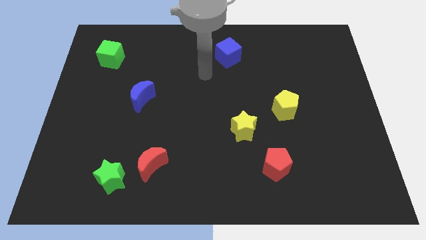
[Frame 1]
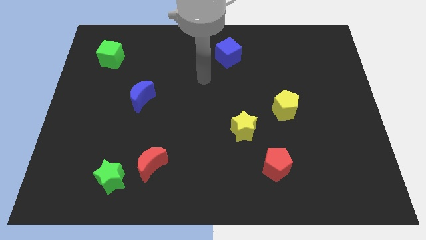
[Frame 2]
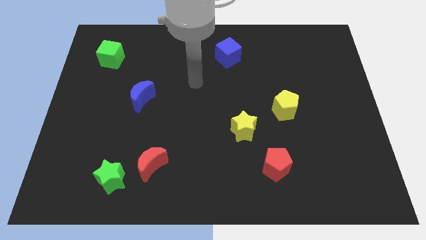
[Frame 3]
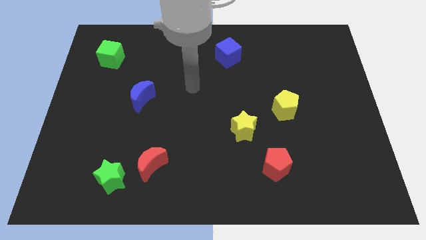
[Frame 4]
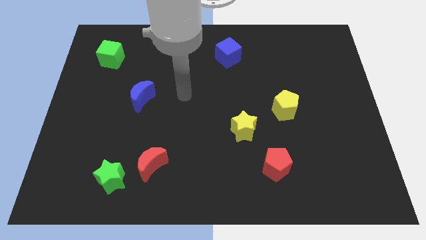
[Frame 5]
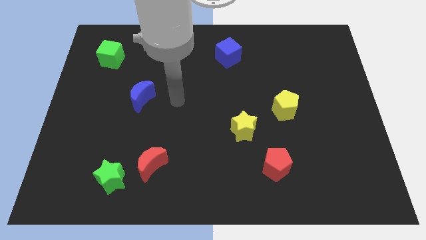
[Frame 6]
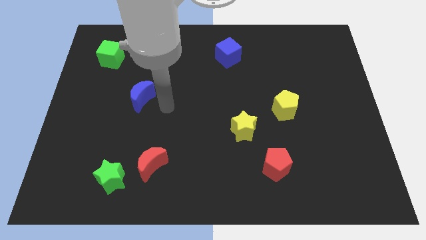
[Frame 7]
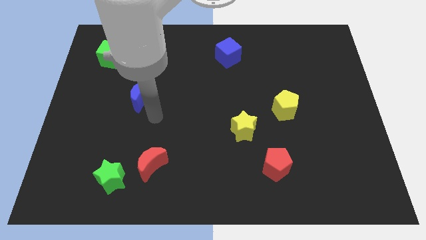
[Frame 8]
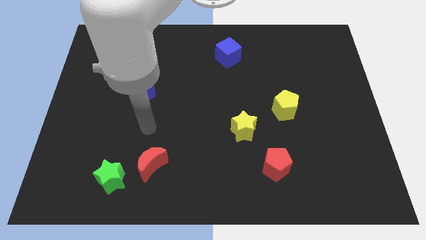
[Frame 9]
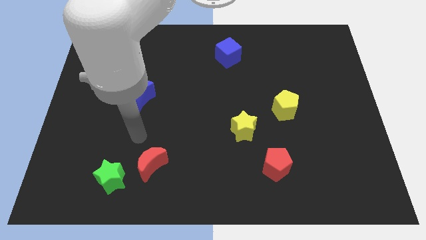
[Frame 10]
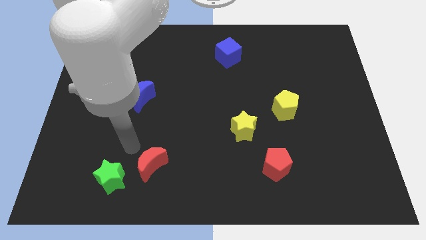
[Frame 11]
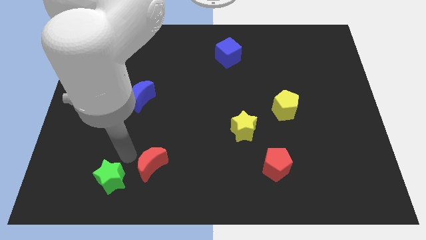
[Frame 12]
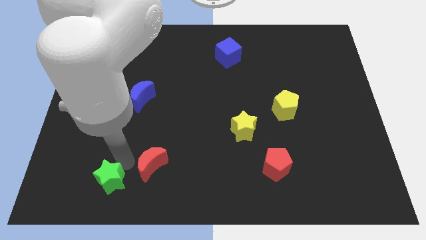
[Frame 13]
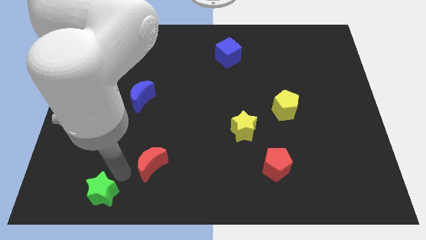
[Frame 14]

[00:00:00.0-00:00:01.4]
pull the red moon apart from the green star

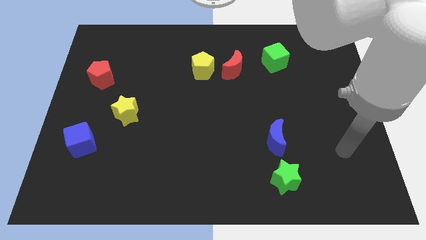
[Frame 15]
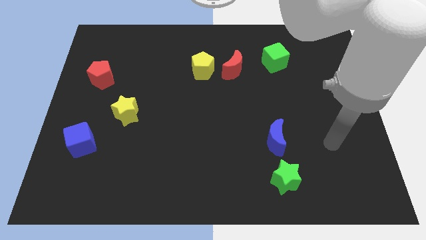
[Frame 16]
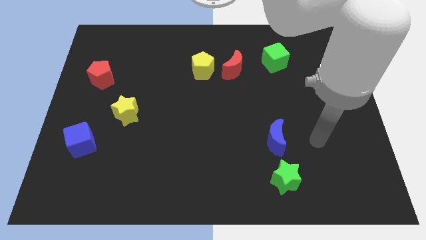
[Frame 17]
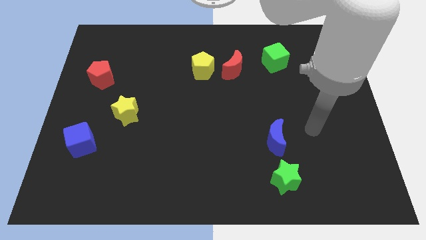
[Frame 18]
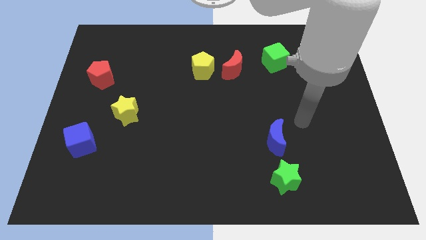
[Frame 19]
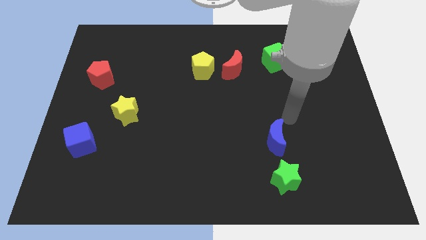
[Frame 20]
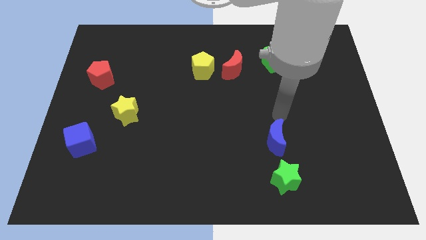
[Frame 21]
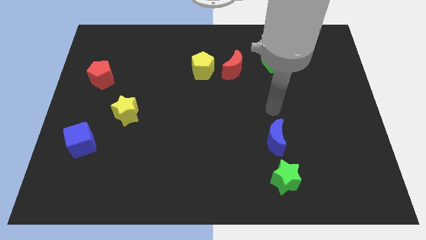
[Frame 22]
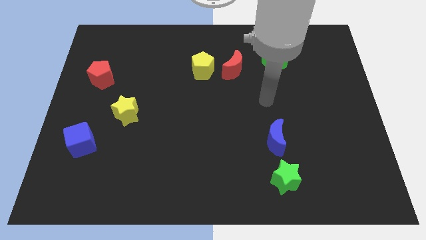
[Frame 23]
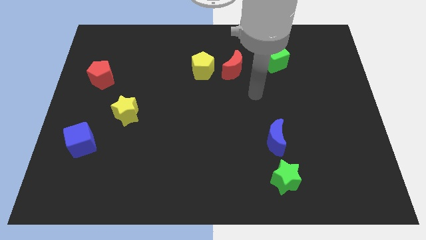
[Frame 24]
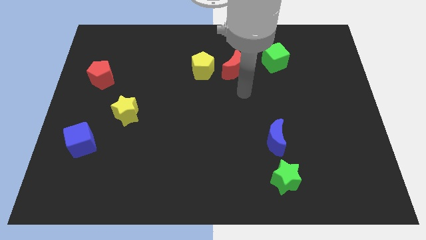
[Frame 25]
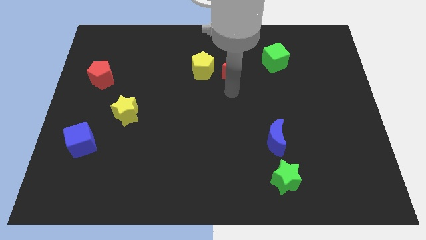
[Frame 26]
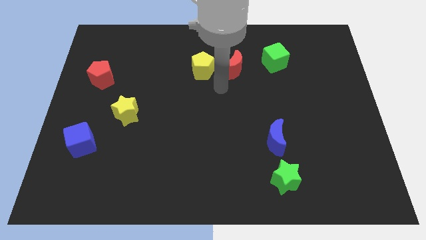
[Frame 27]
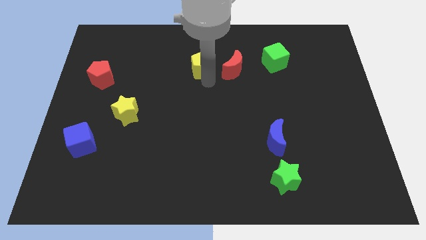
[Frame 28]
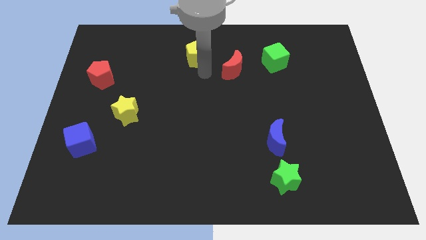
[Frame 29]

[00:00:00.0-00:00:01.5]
separate the red moon from the yellow pentagon

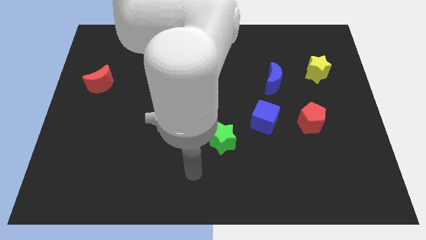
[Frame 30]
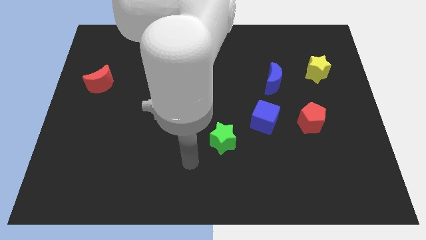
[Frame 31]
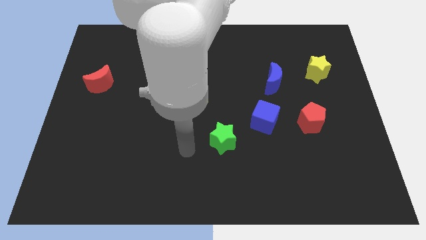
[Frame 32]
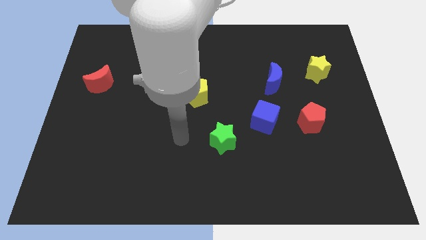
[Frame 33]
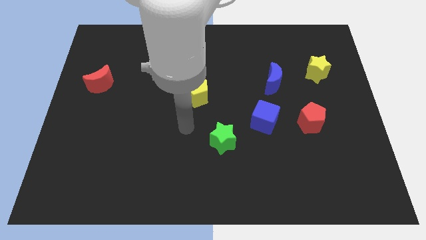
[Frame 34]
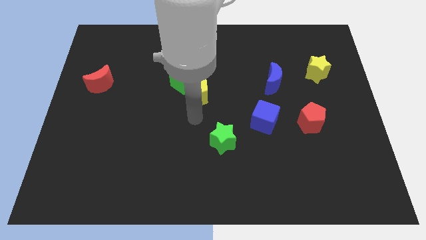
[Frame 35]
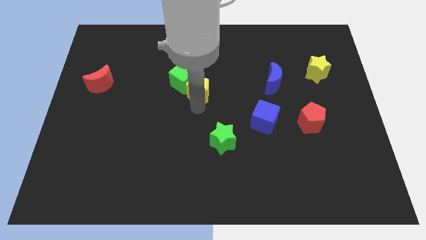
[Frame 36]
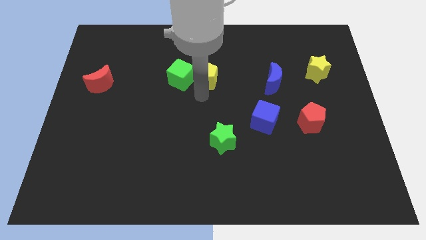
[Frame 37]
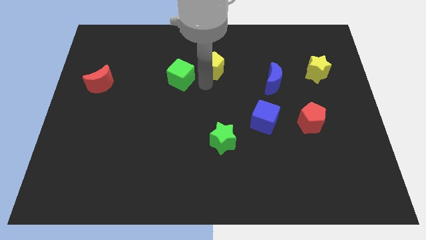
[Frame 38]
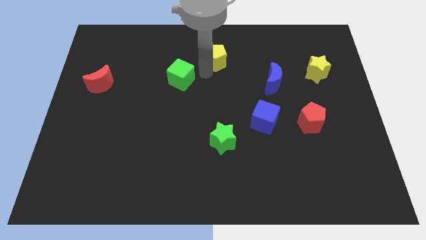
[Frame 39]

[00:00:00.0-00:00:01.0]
pull the green cube apart from the yellow pentagon

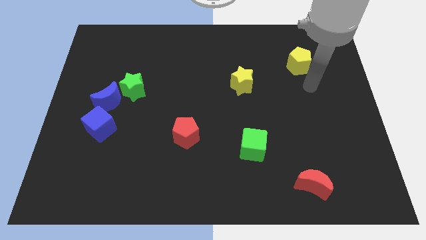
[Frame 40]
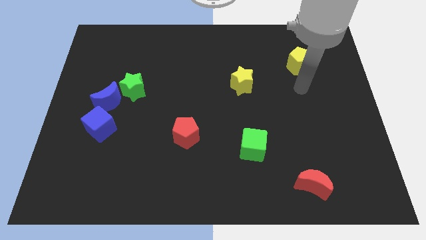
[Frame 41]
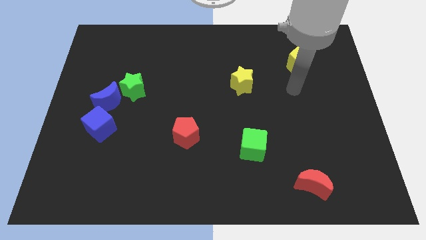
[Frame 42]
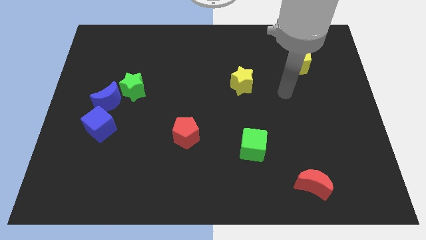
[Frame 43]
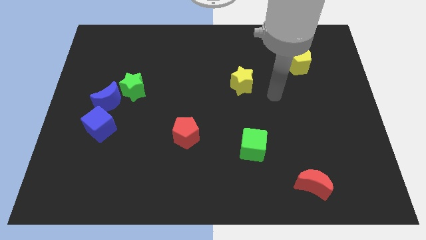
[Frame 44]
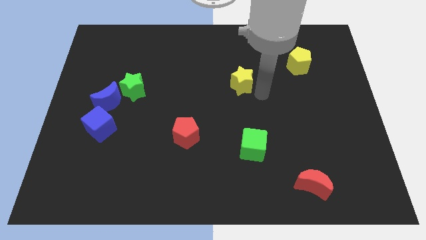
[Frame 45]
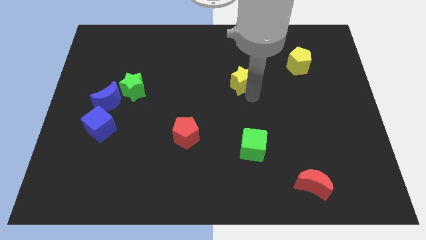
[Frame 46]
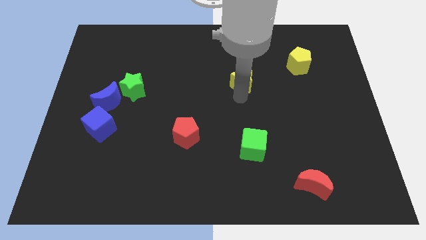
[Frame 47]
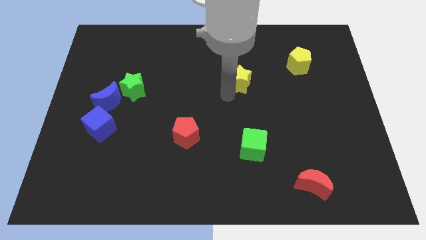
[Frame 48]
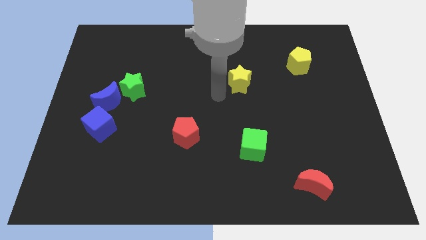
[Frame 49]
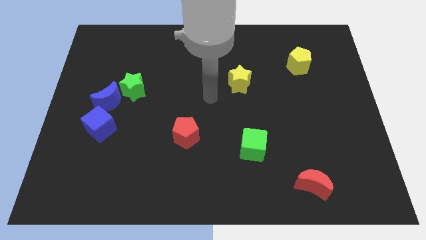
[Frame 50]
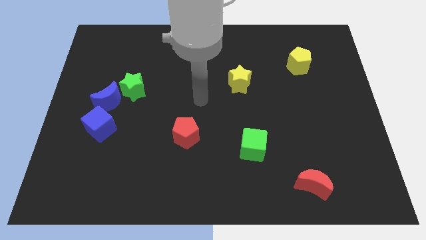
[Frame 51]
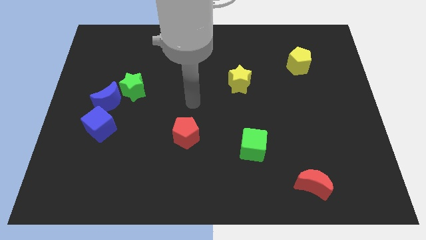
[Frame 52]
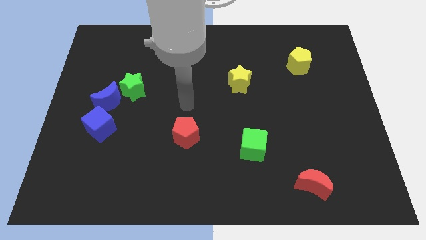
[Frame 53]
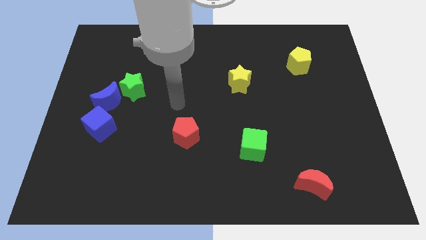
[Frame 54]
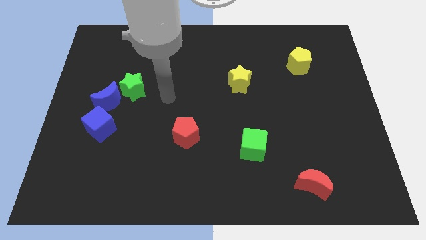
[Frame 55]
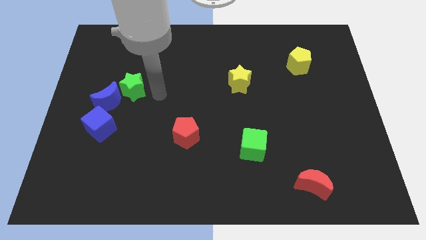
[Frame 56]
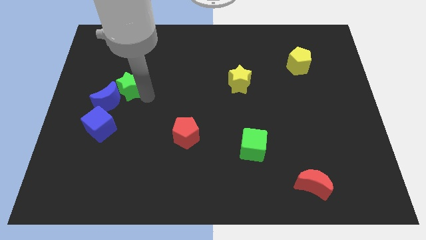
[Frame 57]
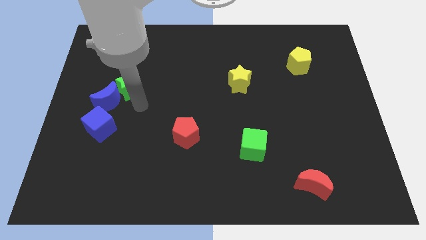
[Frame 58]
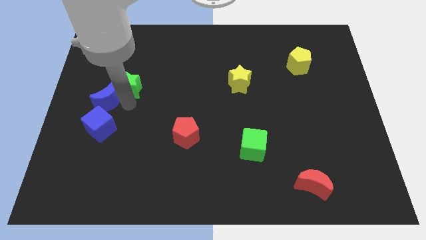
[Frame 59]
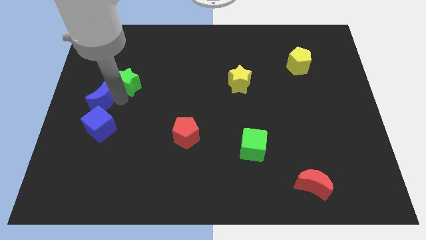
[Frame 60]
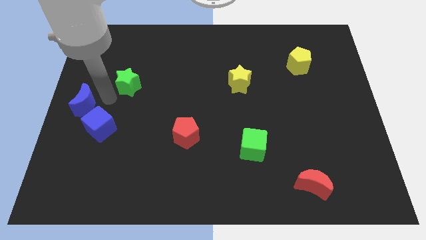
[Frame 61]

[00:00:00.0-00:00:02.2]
pull the green star apart from the blue moon

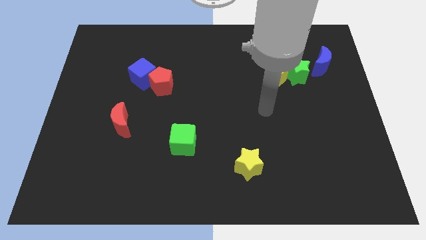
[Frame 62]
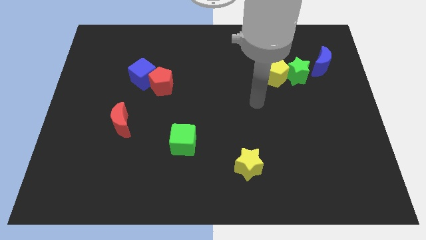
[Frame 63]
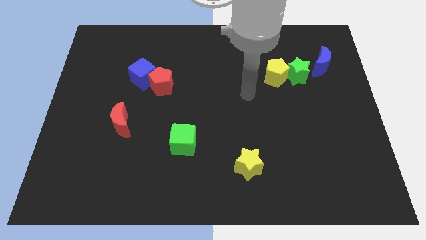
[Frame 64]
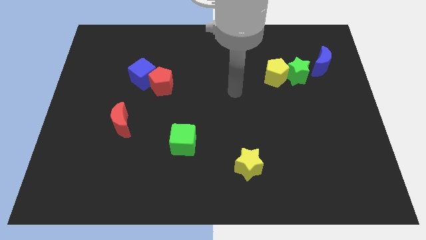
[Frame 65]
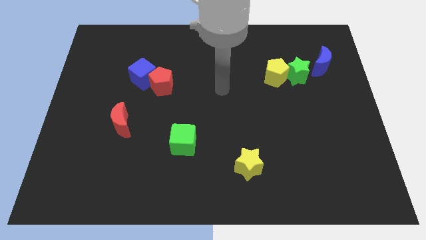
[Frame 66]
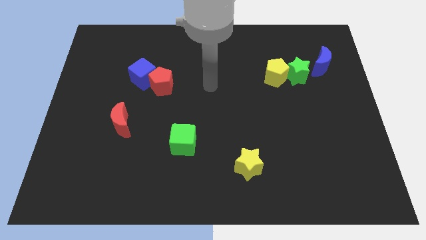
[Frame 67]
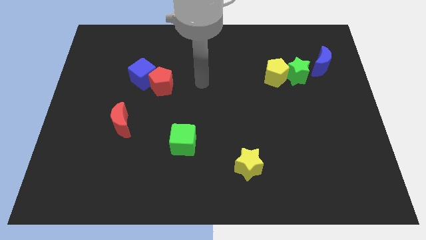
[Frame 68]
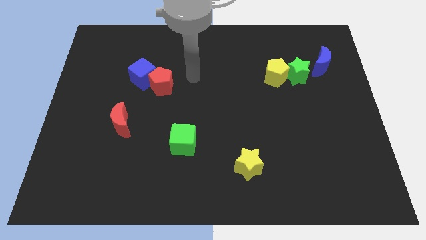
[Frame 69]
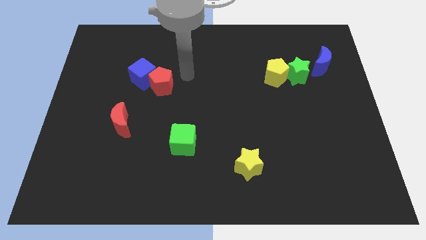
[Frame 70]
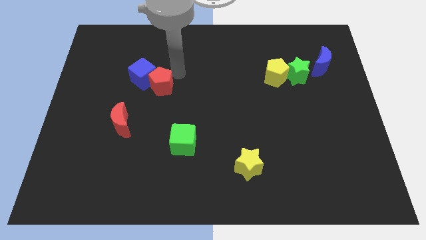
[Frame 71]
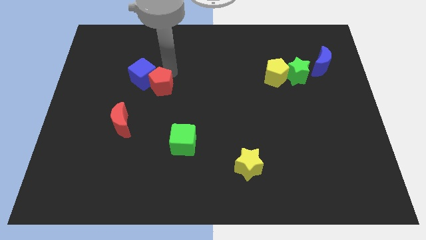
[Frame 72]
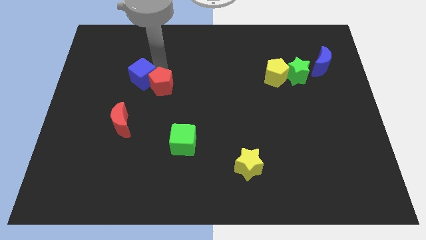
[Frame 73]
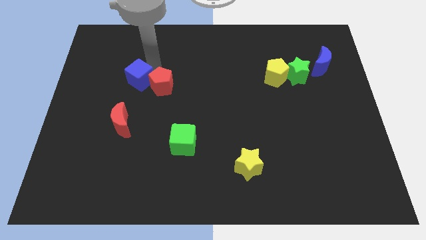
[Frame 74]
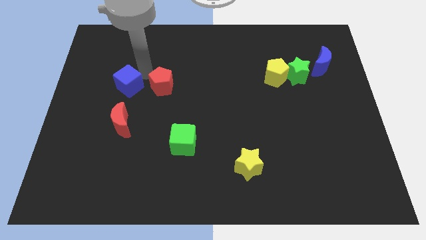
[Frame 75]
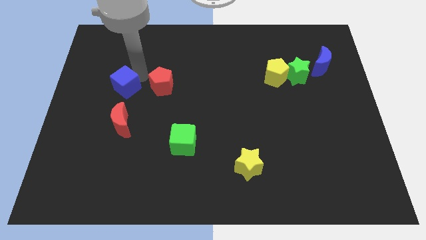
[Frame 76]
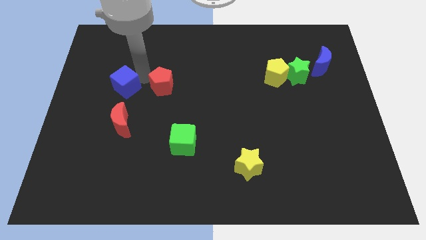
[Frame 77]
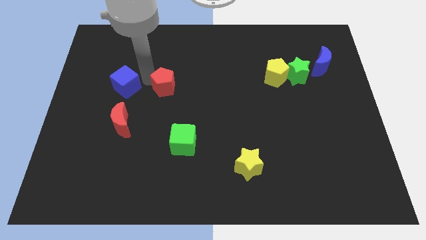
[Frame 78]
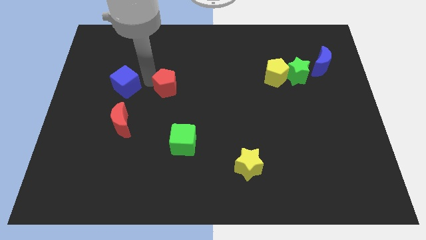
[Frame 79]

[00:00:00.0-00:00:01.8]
move the red pentagon away from the blue cube

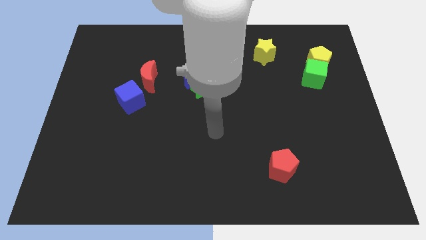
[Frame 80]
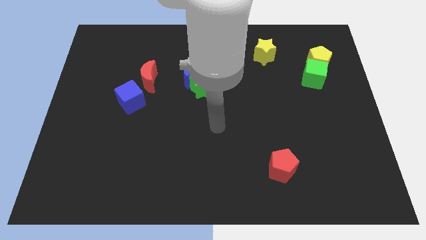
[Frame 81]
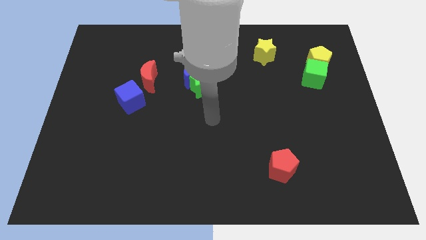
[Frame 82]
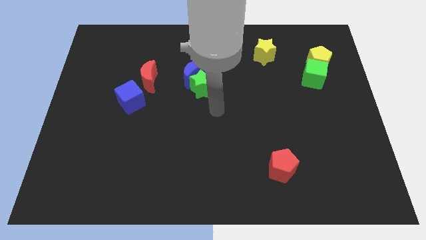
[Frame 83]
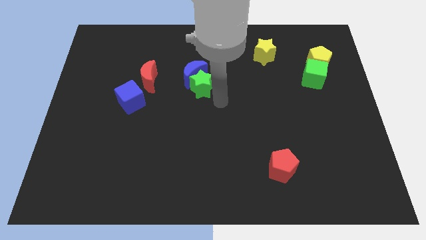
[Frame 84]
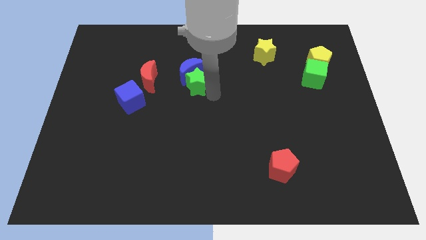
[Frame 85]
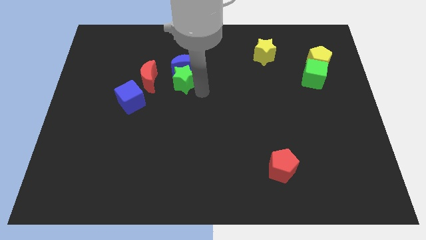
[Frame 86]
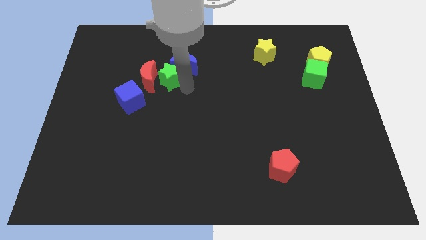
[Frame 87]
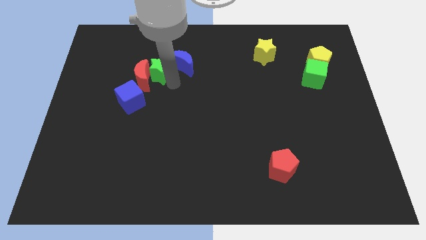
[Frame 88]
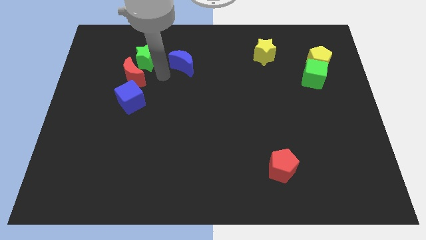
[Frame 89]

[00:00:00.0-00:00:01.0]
move the blue moon away from the green star

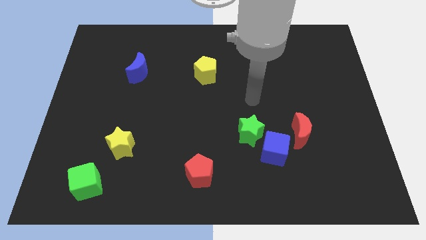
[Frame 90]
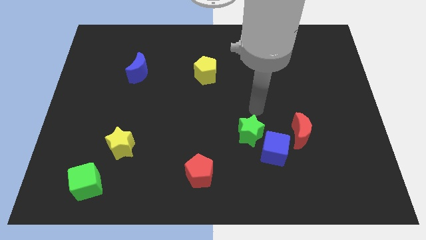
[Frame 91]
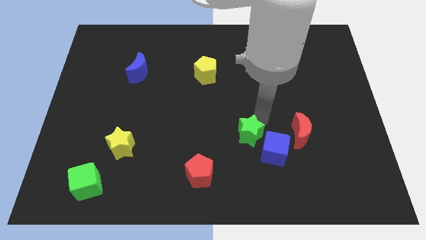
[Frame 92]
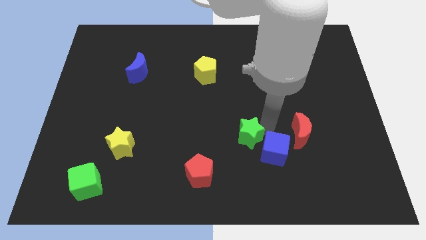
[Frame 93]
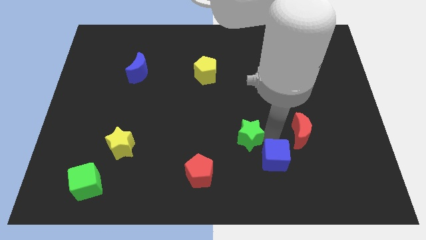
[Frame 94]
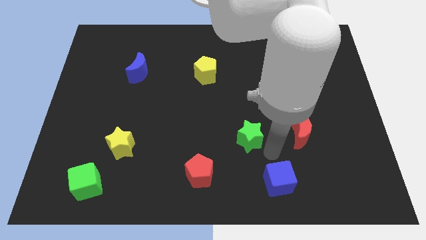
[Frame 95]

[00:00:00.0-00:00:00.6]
move the green star away from the blue cube

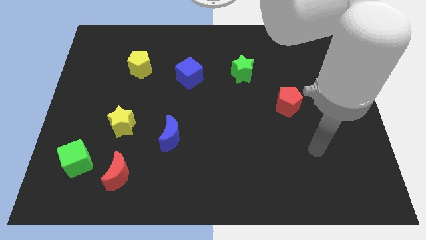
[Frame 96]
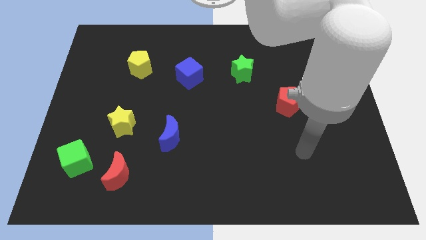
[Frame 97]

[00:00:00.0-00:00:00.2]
pull the red moon apart from the green cube
